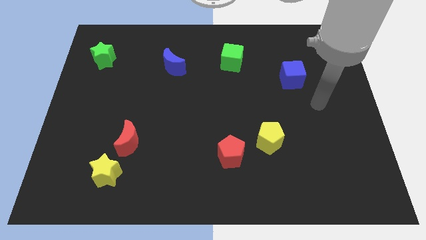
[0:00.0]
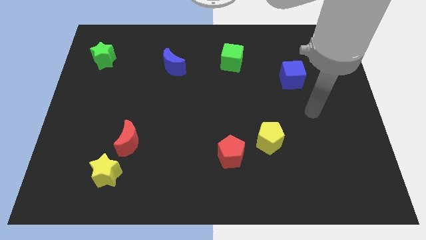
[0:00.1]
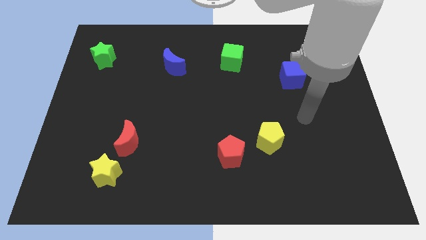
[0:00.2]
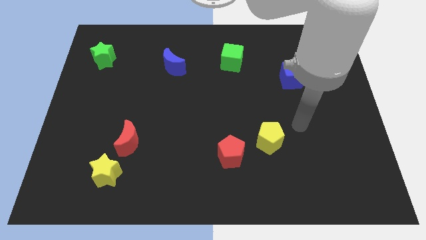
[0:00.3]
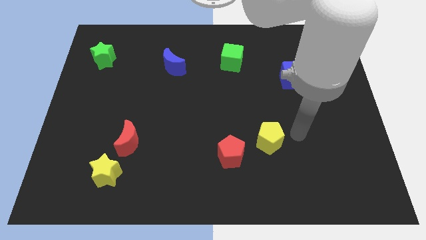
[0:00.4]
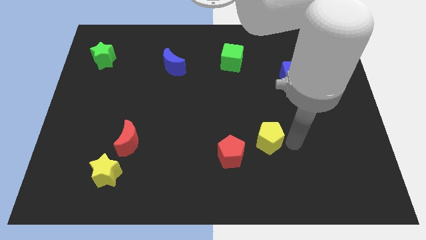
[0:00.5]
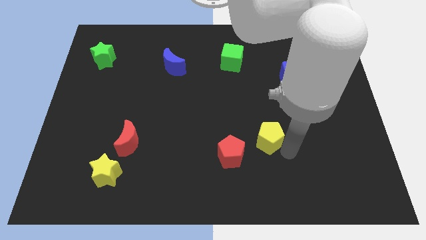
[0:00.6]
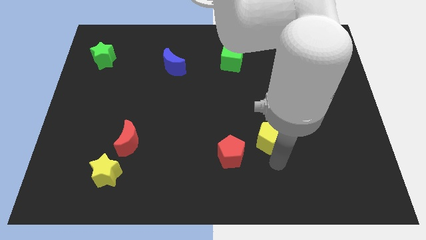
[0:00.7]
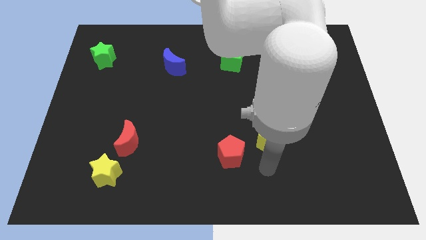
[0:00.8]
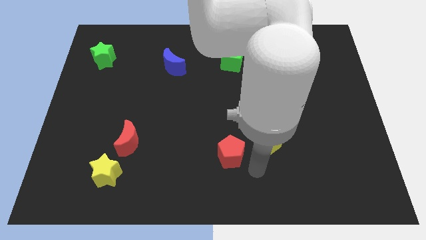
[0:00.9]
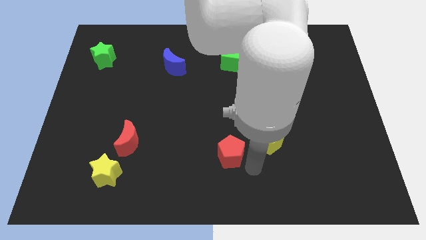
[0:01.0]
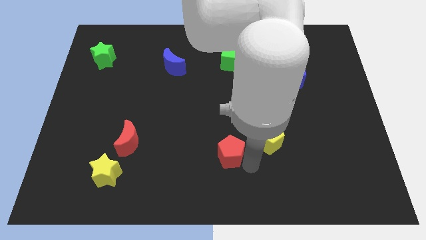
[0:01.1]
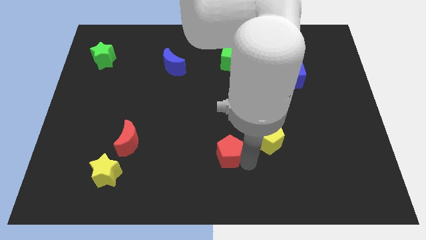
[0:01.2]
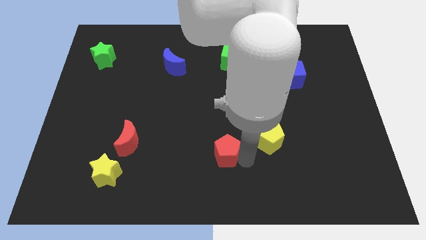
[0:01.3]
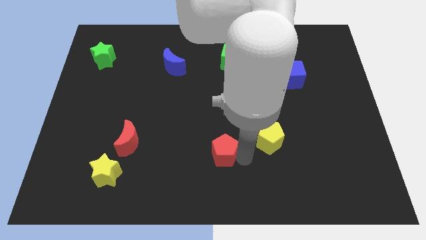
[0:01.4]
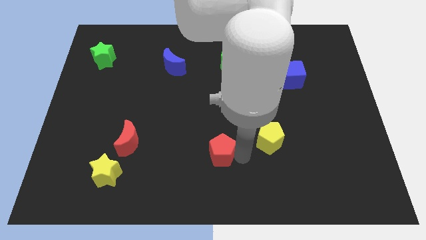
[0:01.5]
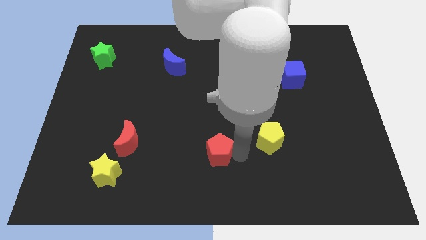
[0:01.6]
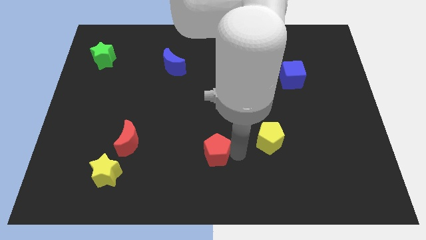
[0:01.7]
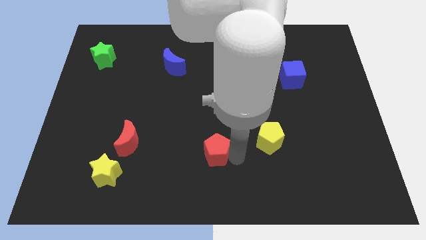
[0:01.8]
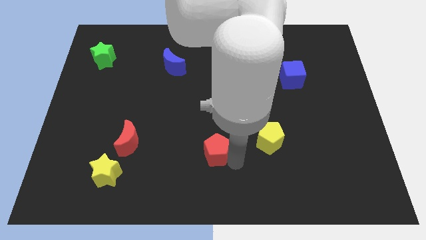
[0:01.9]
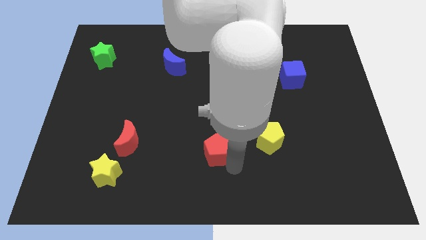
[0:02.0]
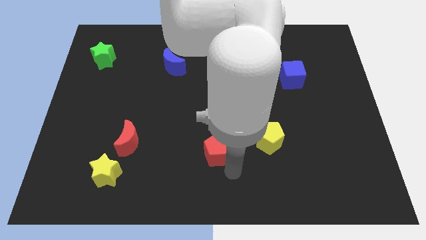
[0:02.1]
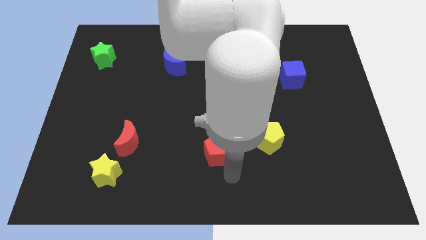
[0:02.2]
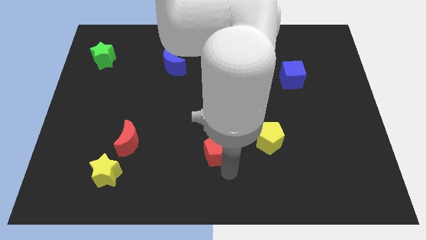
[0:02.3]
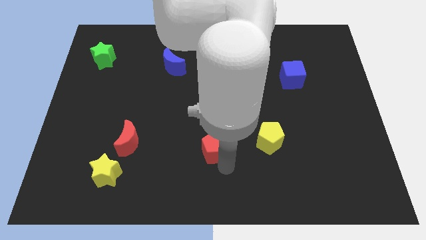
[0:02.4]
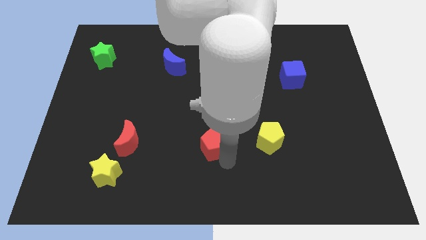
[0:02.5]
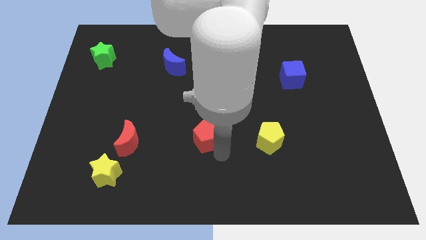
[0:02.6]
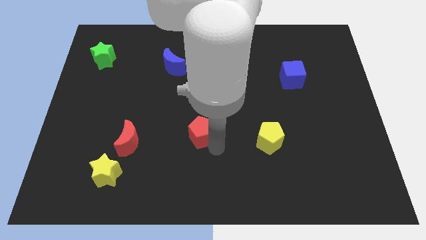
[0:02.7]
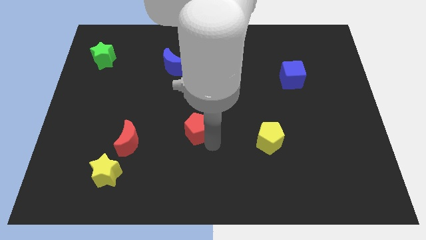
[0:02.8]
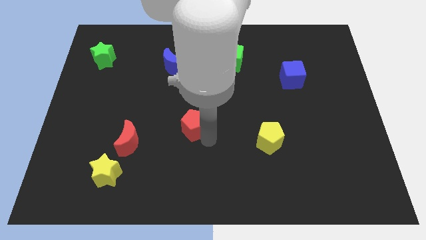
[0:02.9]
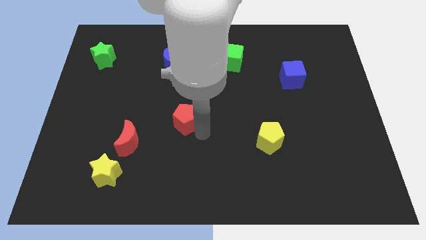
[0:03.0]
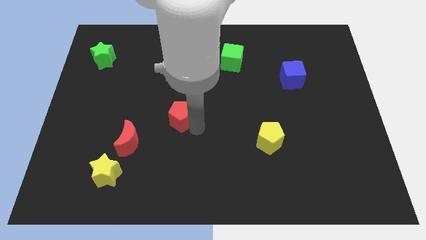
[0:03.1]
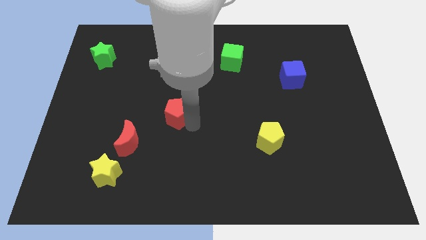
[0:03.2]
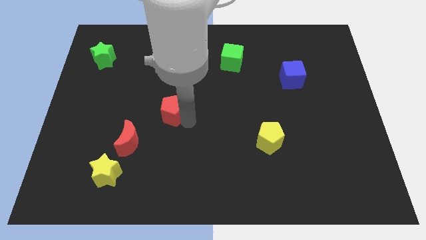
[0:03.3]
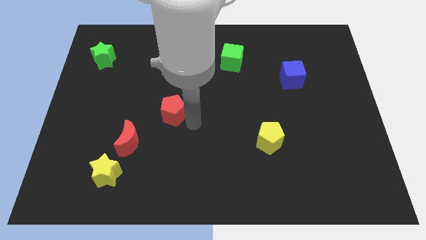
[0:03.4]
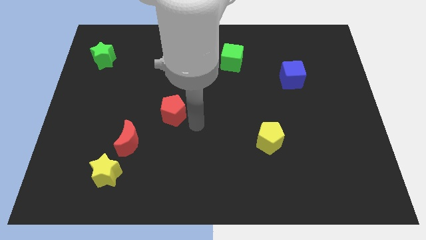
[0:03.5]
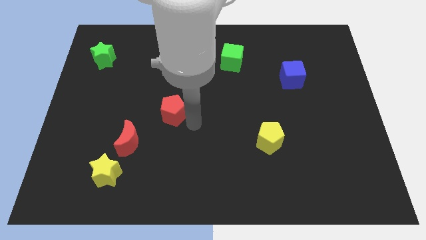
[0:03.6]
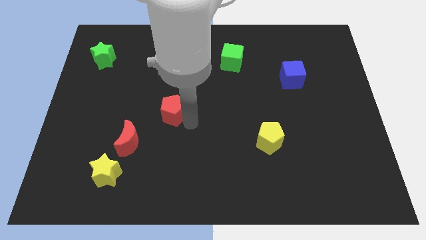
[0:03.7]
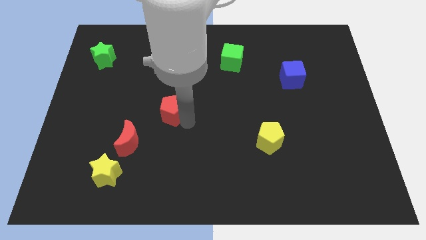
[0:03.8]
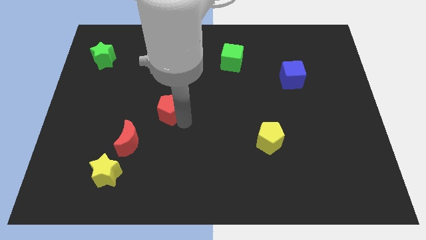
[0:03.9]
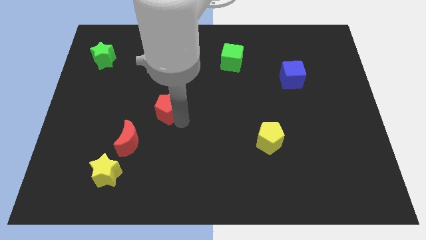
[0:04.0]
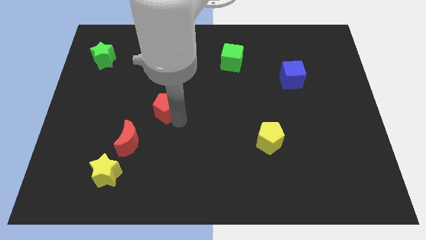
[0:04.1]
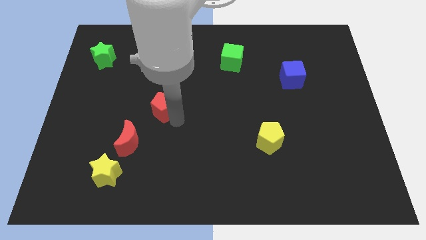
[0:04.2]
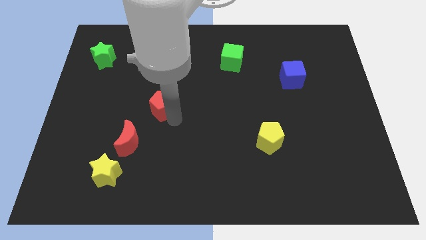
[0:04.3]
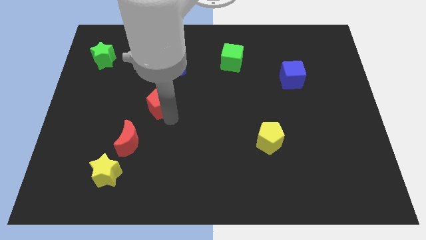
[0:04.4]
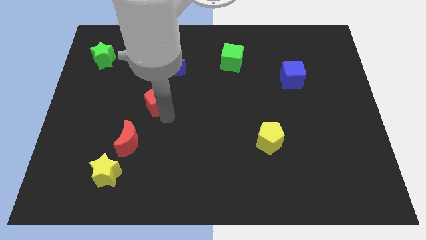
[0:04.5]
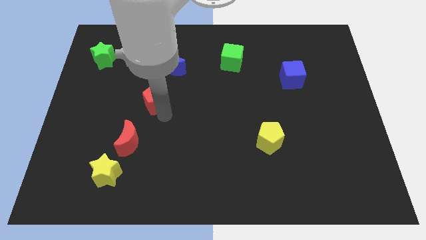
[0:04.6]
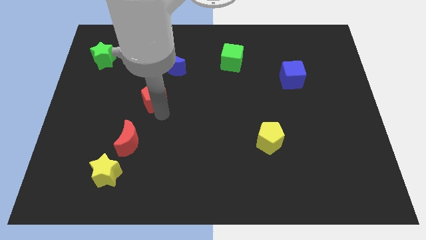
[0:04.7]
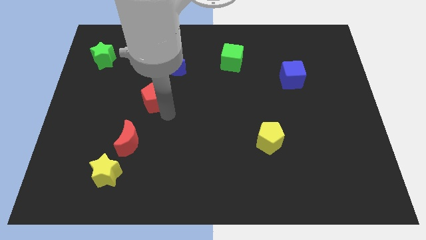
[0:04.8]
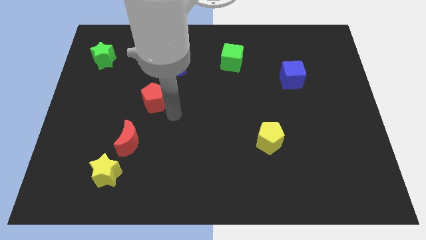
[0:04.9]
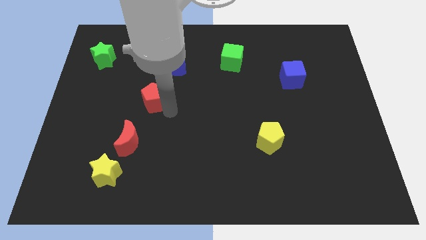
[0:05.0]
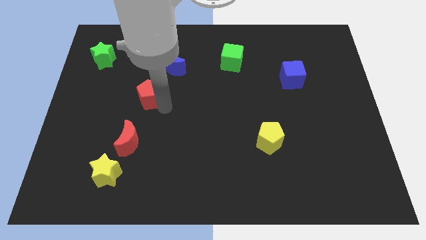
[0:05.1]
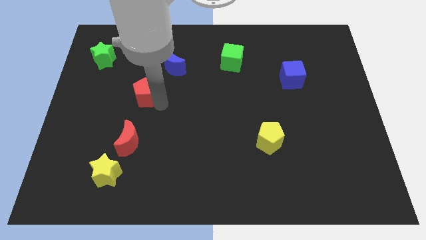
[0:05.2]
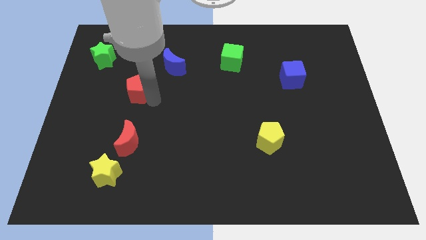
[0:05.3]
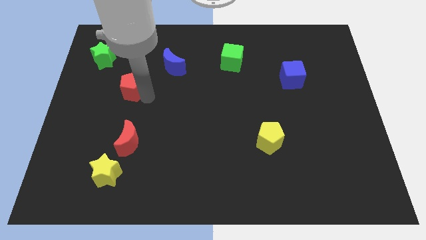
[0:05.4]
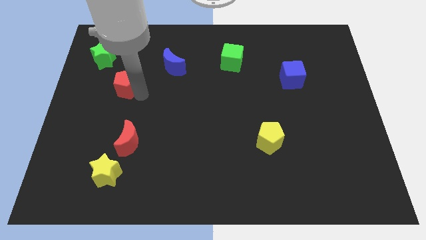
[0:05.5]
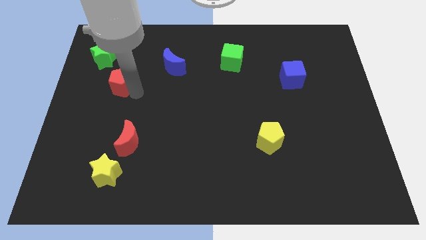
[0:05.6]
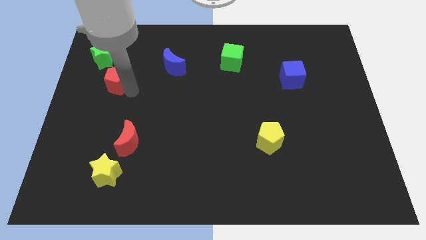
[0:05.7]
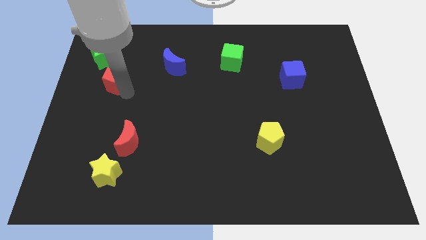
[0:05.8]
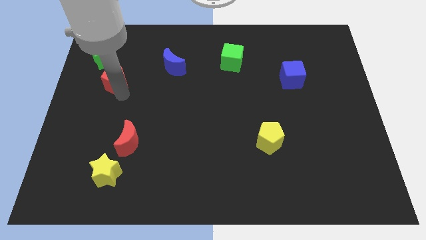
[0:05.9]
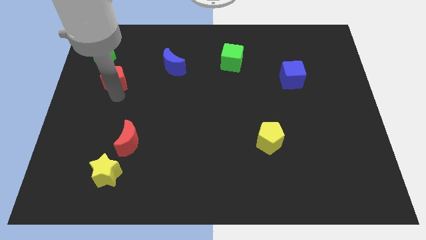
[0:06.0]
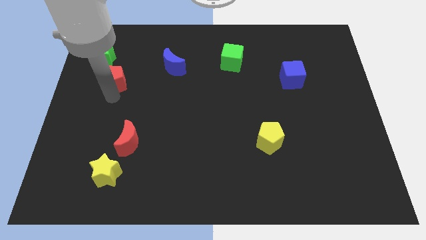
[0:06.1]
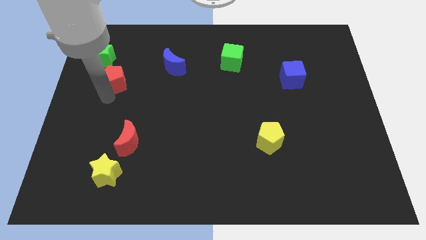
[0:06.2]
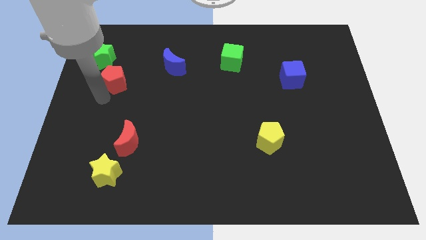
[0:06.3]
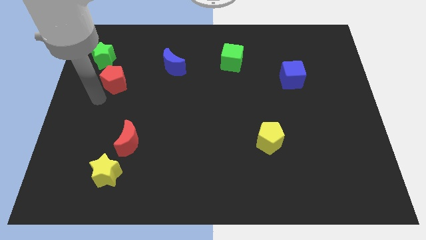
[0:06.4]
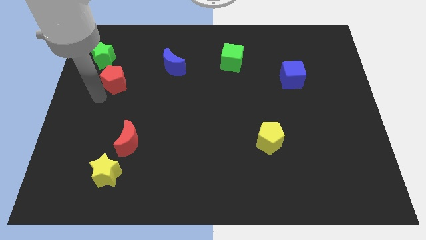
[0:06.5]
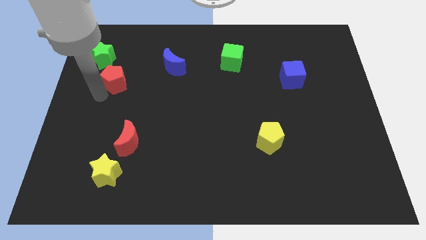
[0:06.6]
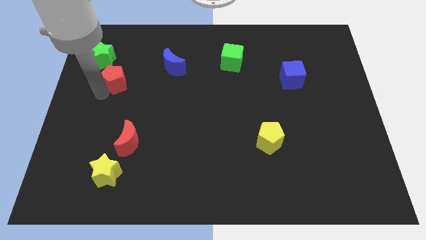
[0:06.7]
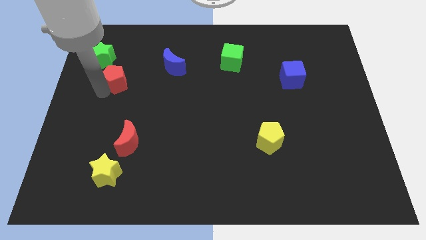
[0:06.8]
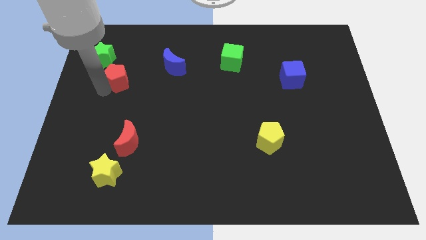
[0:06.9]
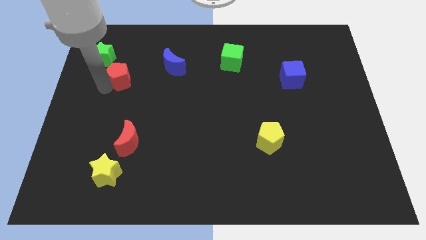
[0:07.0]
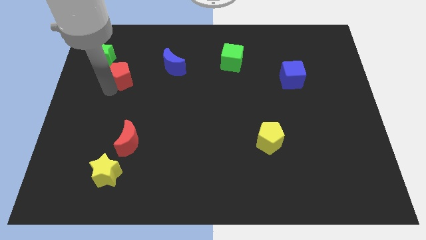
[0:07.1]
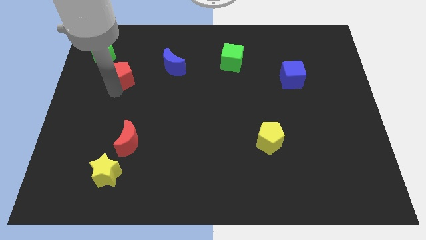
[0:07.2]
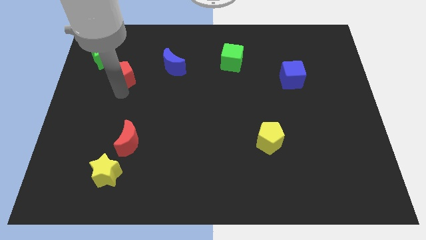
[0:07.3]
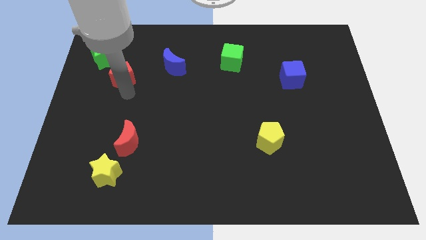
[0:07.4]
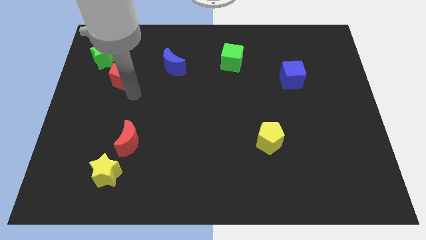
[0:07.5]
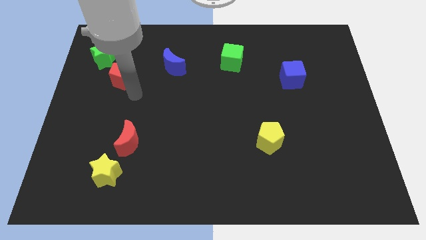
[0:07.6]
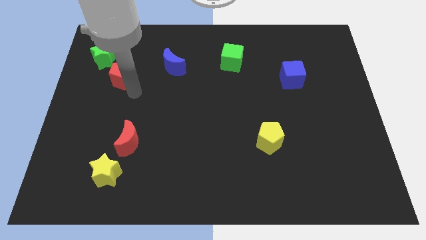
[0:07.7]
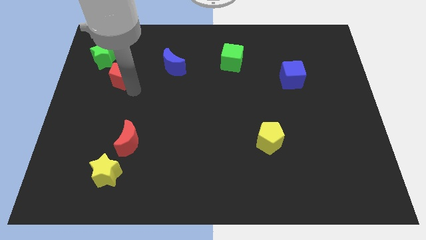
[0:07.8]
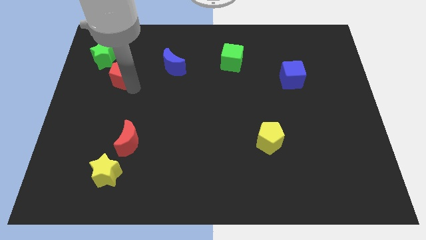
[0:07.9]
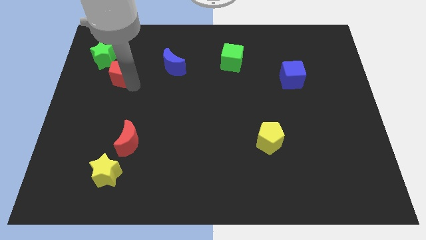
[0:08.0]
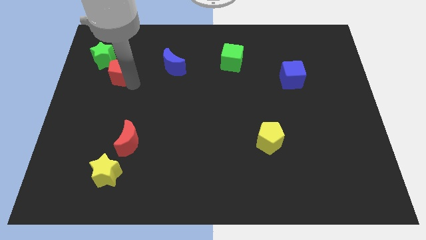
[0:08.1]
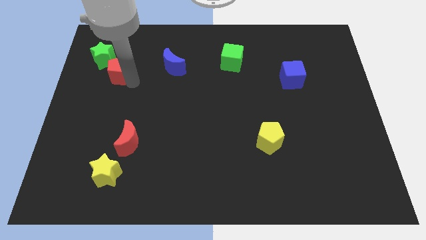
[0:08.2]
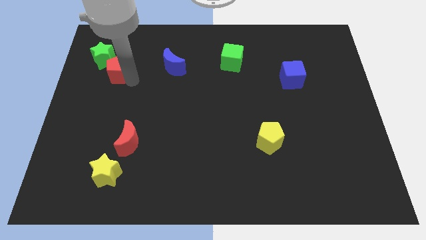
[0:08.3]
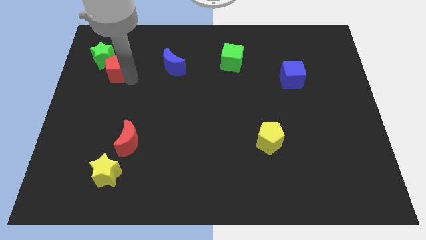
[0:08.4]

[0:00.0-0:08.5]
slide the red pentagon close to the green star
